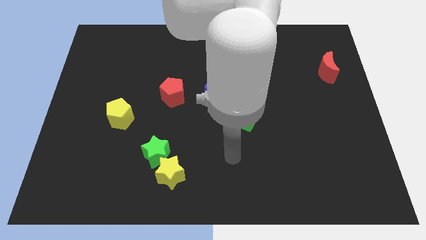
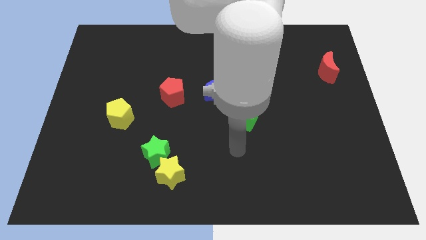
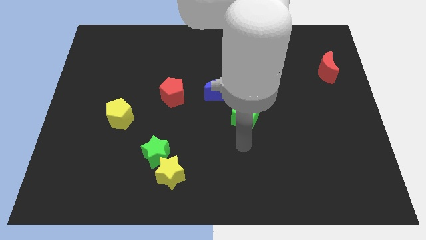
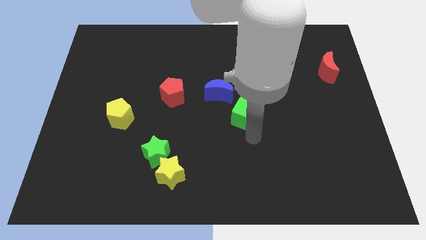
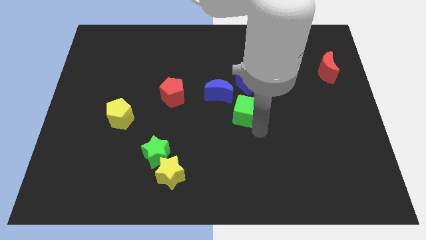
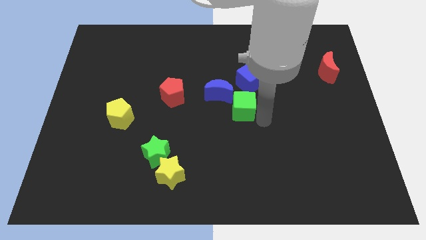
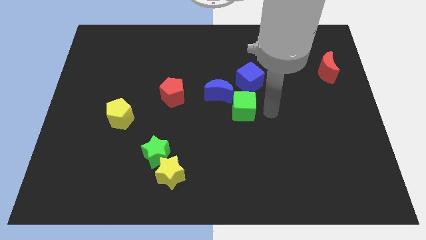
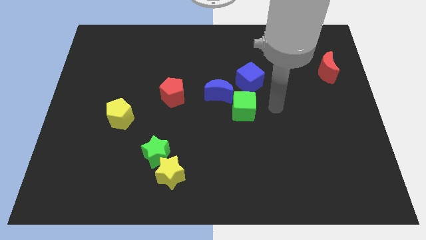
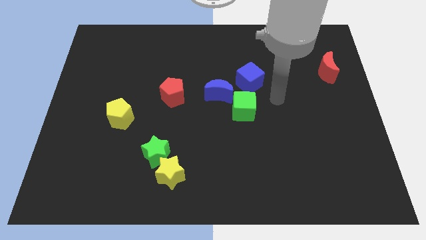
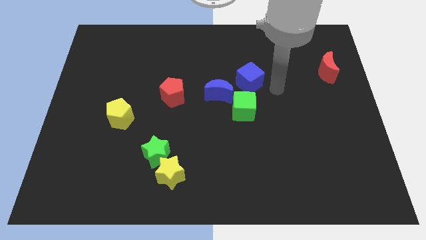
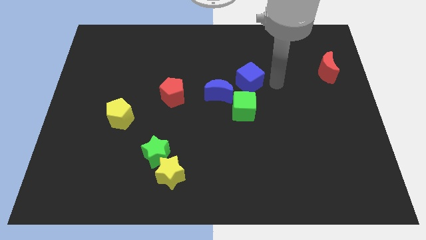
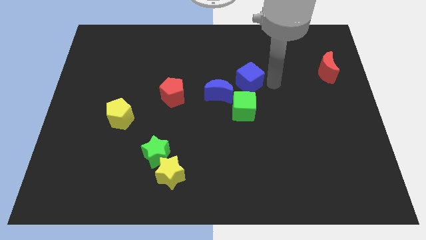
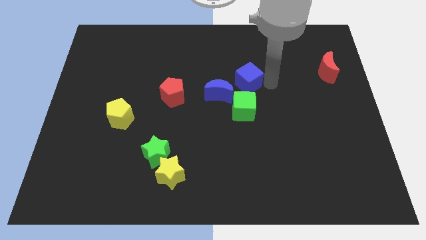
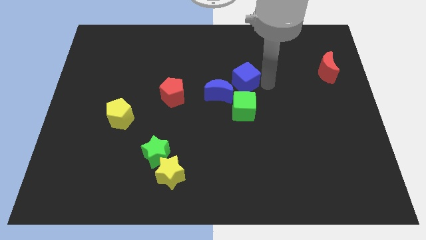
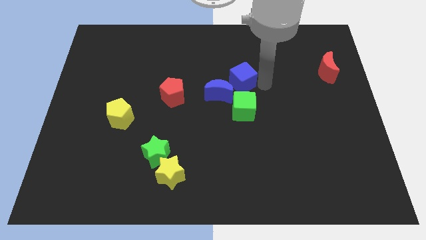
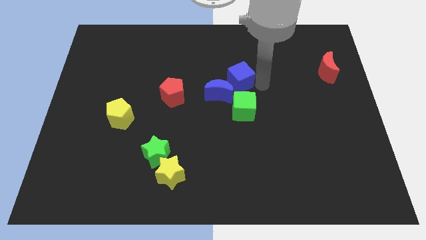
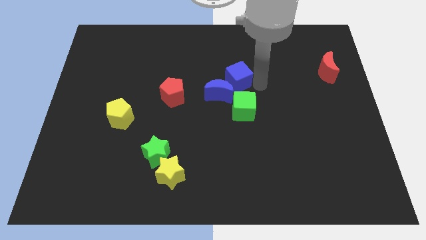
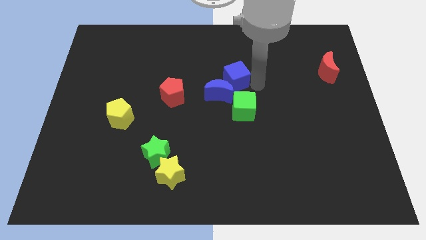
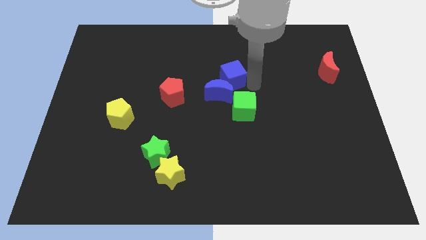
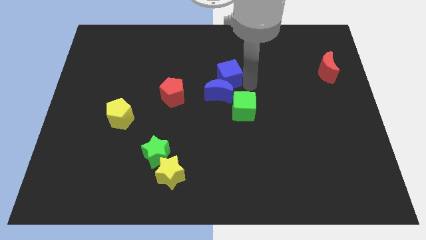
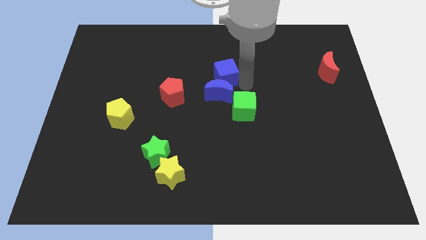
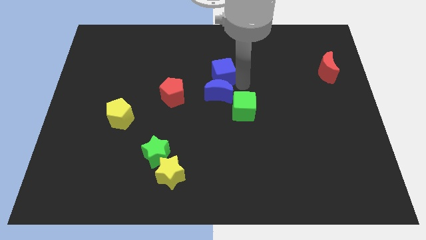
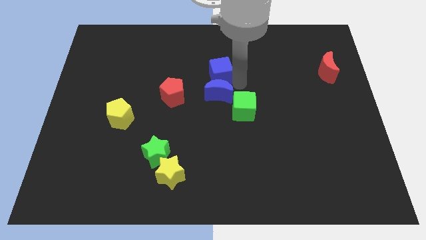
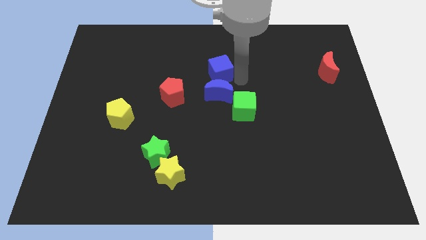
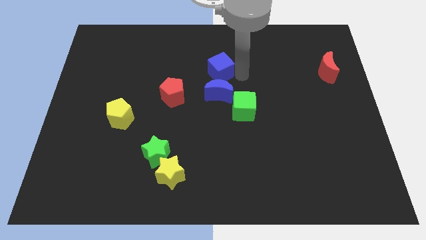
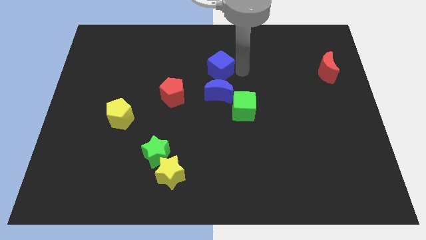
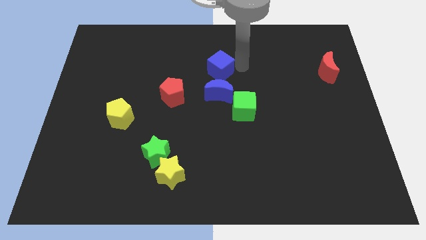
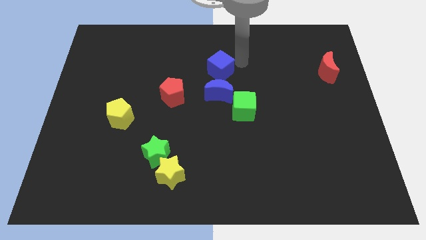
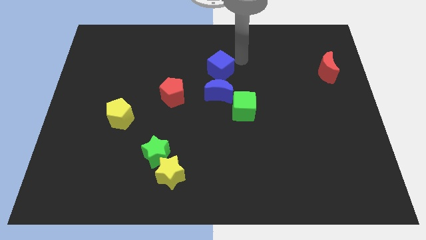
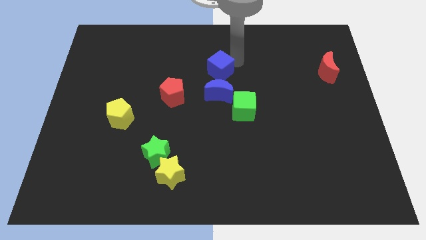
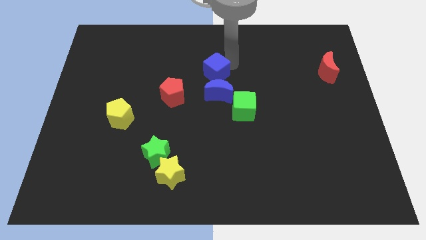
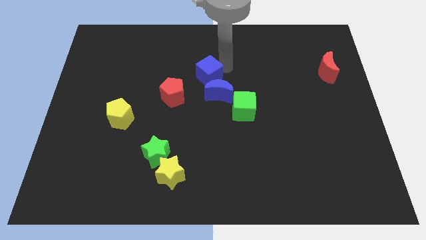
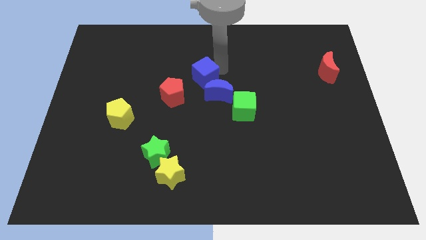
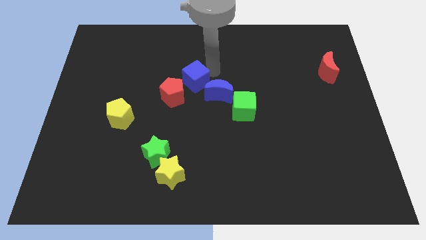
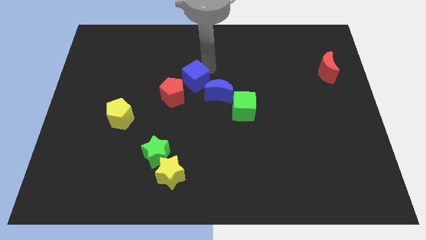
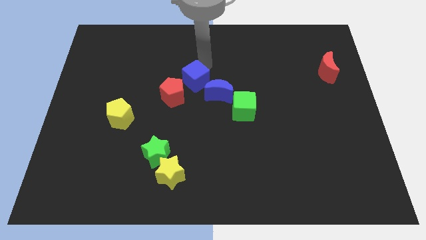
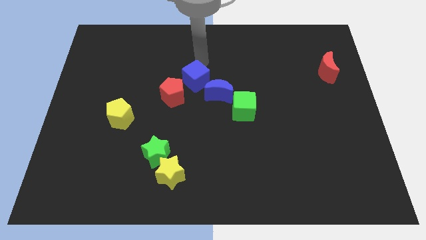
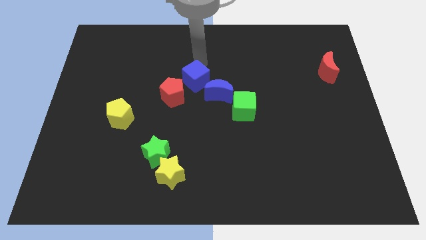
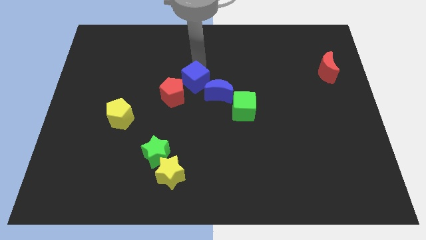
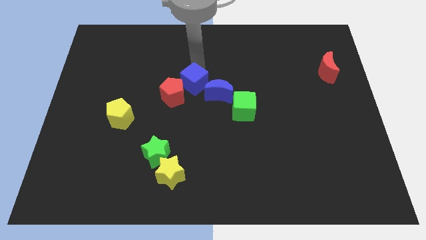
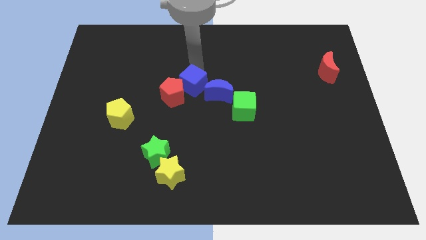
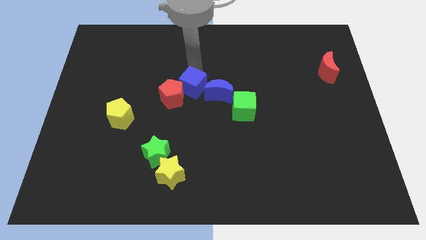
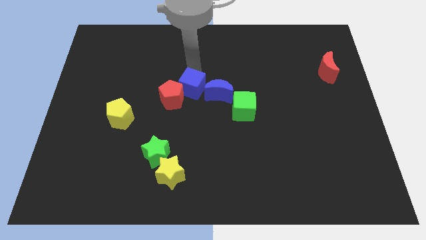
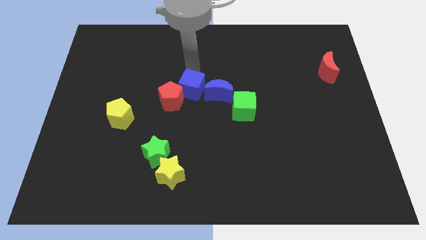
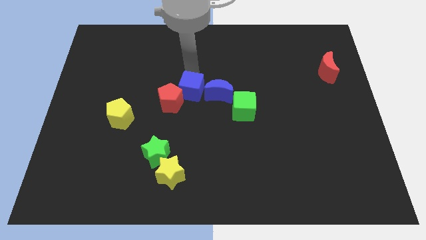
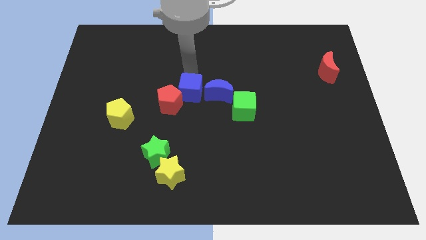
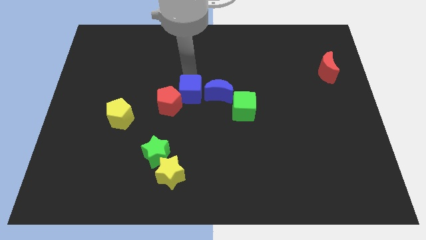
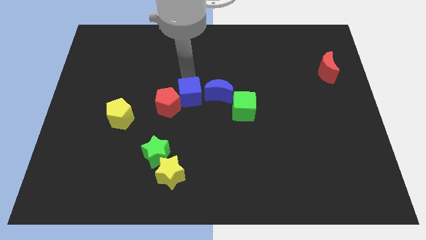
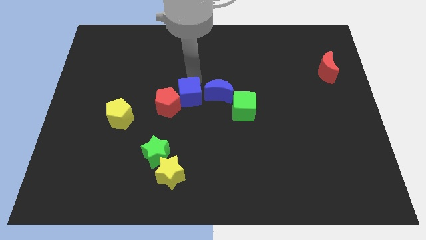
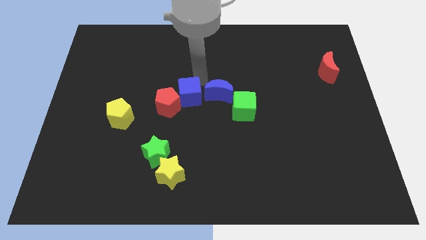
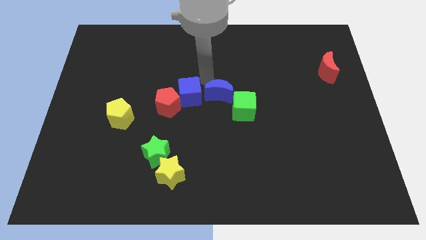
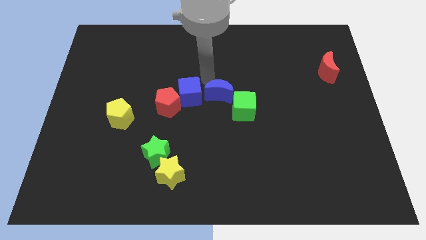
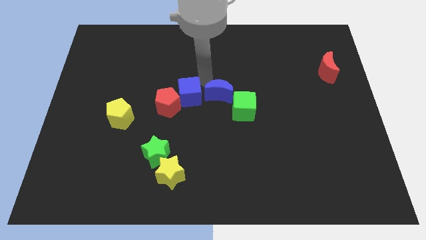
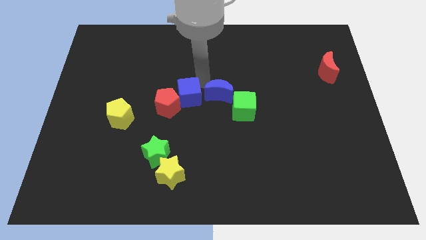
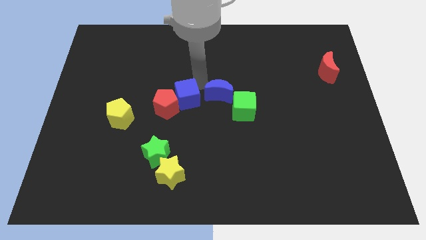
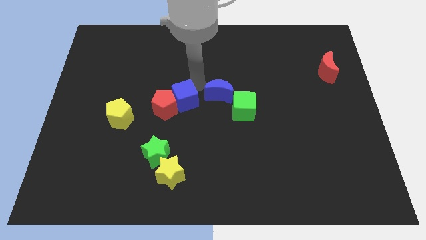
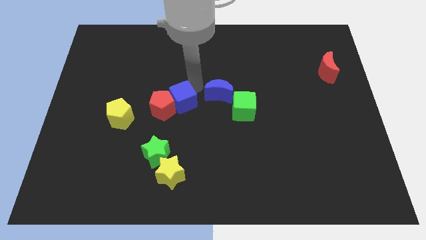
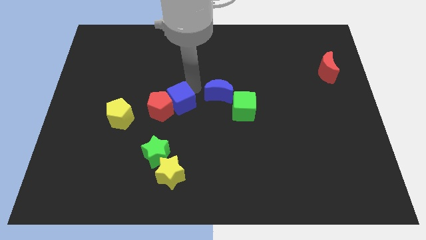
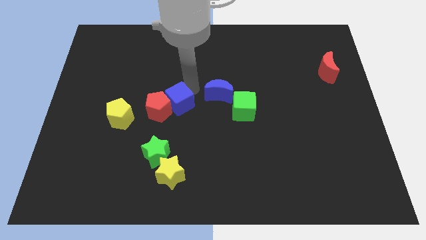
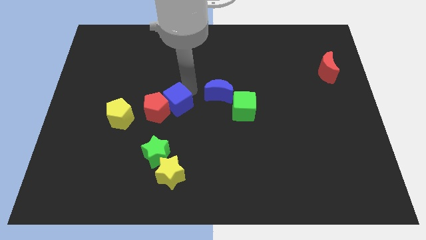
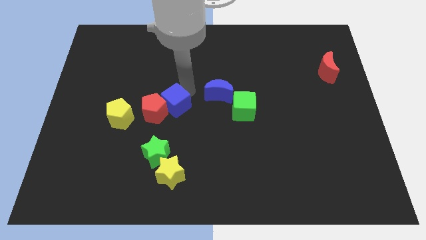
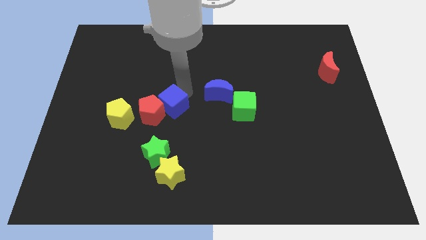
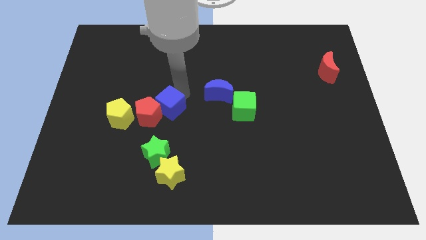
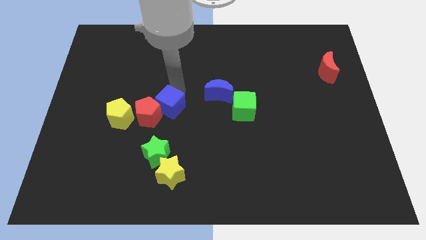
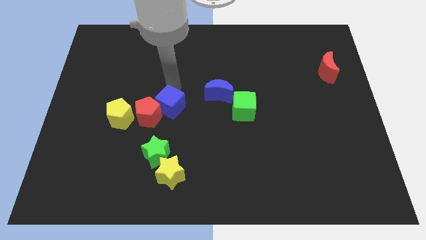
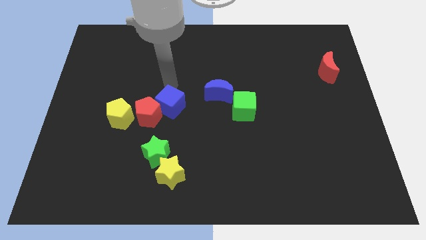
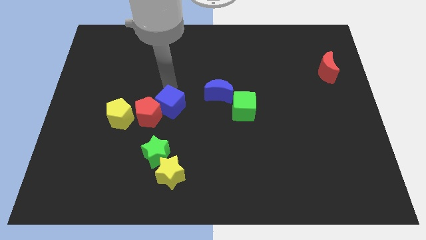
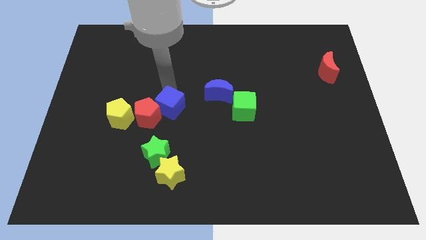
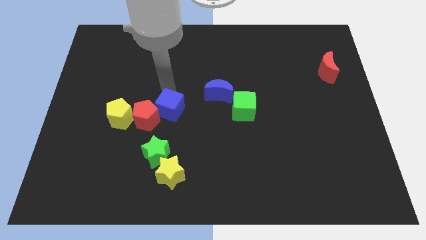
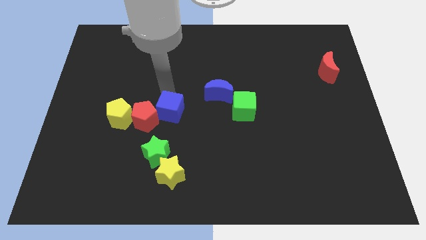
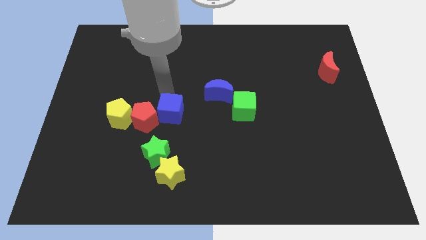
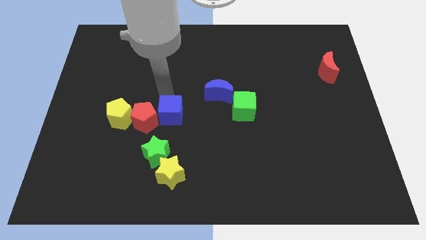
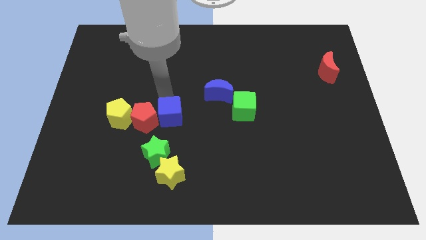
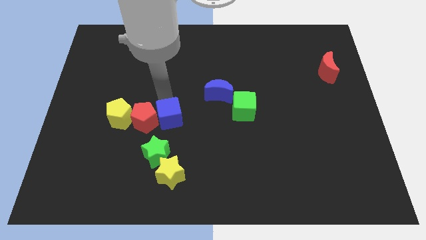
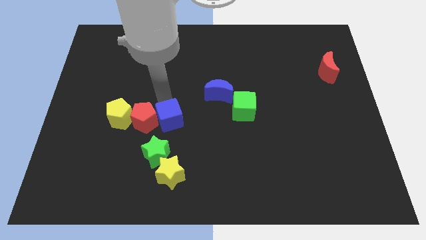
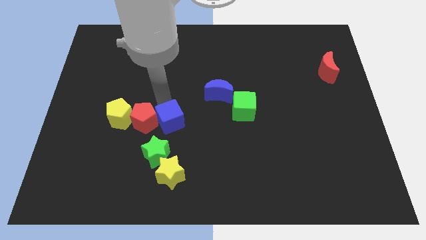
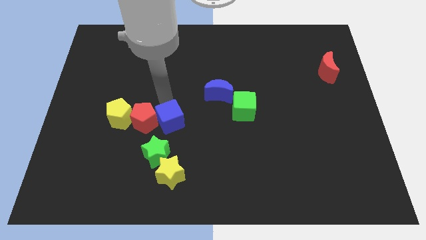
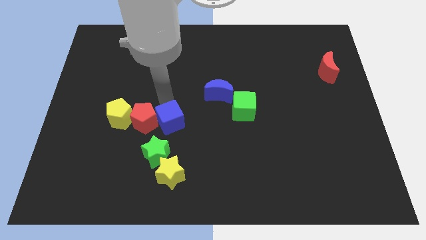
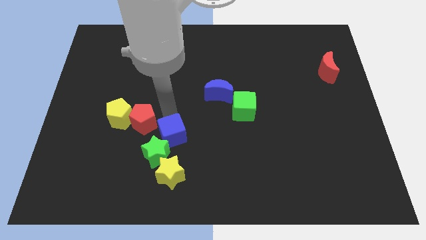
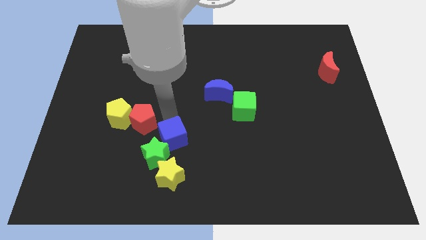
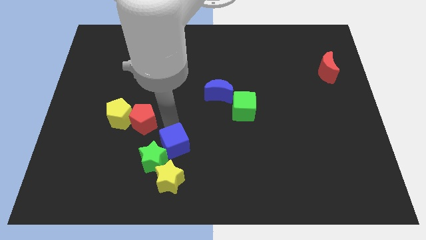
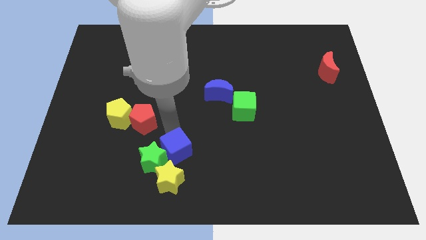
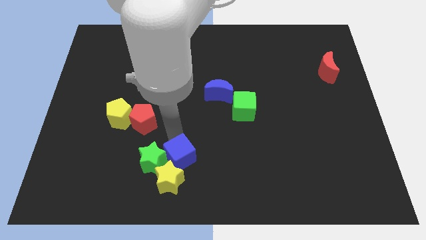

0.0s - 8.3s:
push the blue cube next to the yellow star
